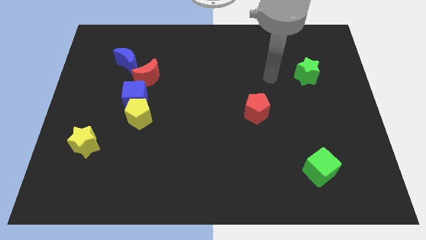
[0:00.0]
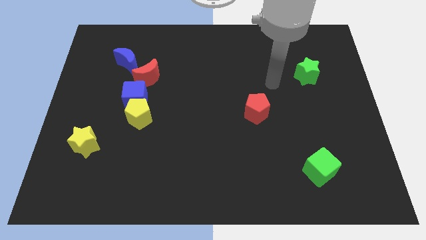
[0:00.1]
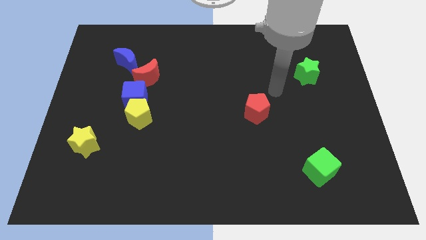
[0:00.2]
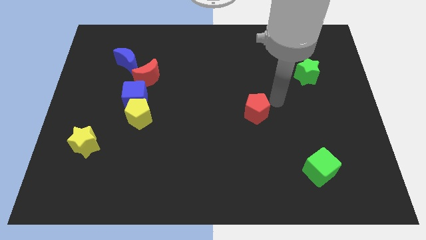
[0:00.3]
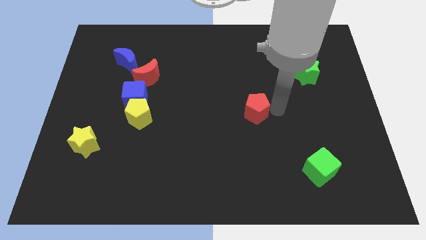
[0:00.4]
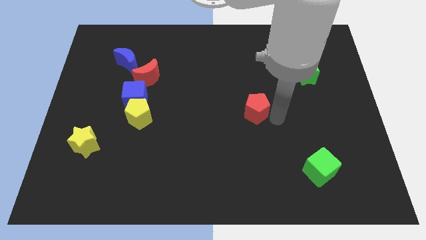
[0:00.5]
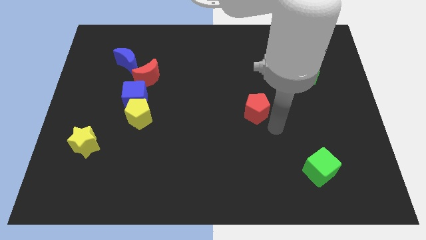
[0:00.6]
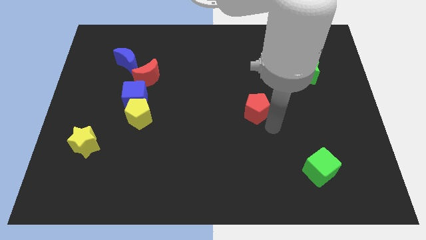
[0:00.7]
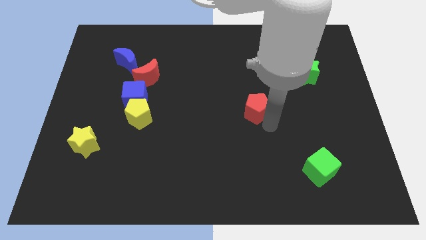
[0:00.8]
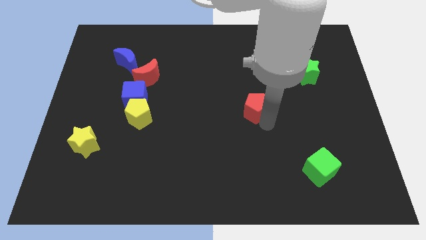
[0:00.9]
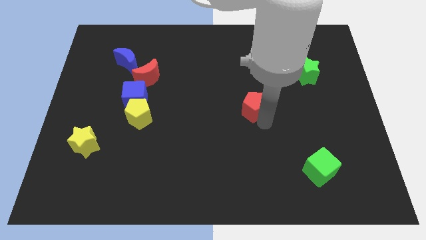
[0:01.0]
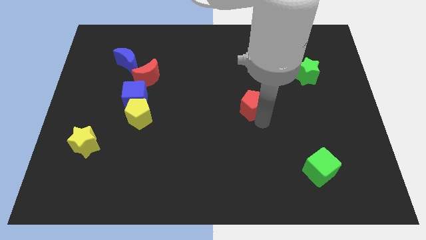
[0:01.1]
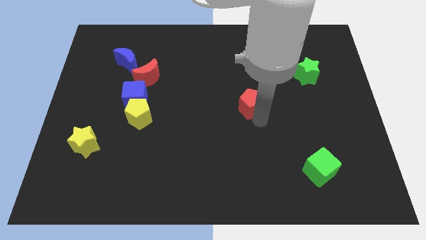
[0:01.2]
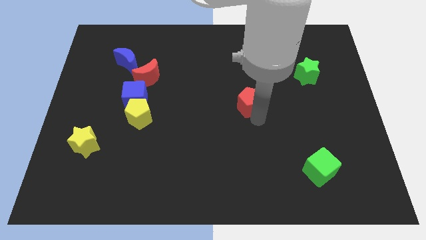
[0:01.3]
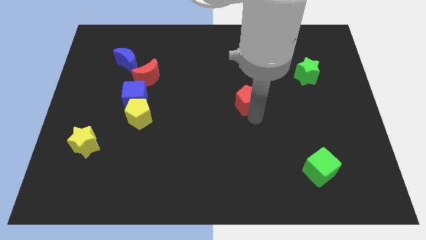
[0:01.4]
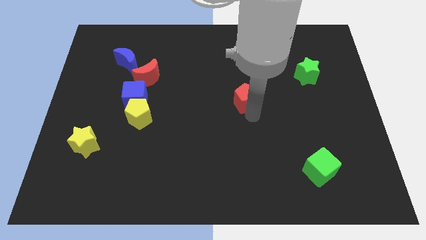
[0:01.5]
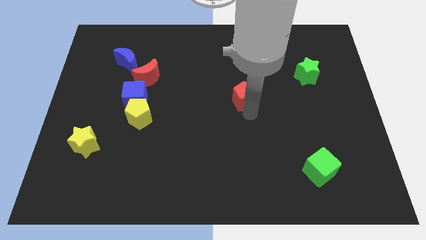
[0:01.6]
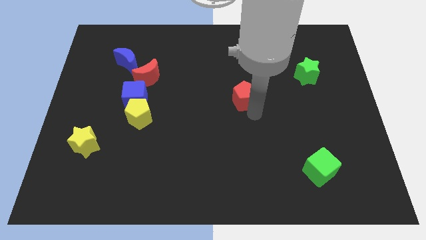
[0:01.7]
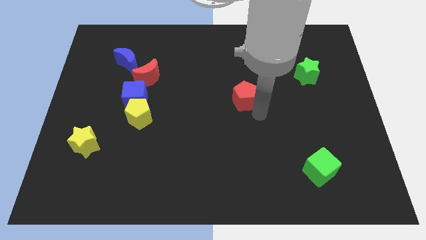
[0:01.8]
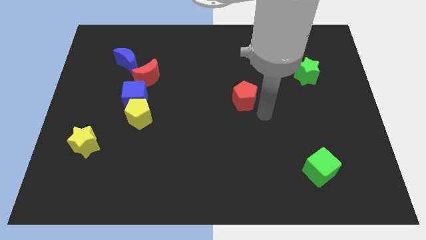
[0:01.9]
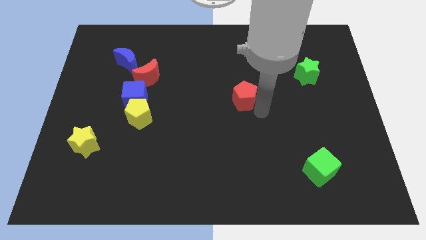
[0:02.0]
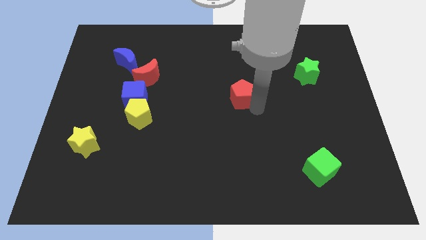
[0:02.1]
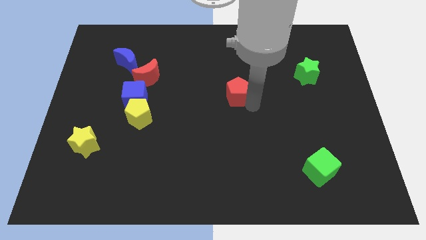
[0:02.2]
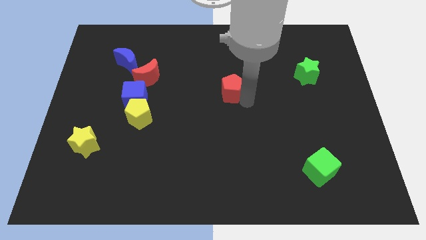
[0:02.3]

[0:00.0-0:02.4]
move the red pentagon a little bit up and to the left diagonally

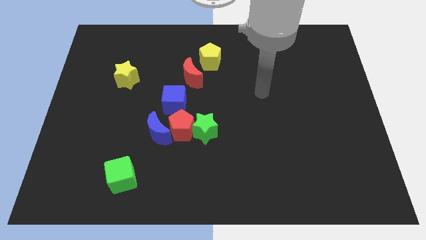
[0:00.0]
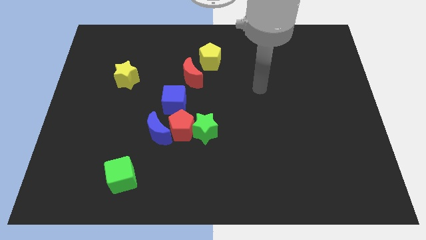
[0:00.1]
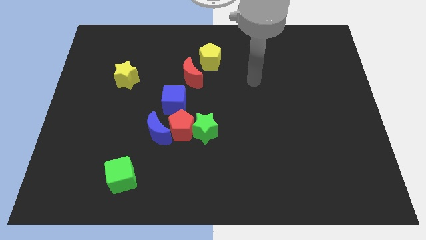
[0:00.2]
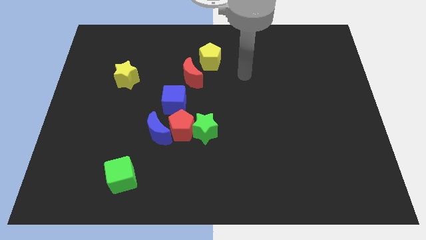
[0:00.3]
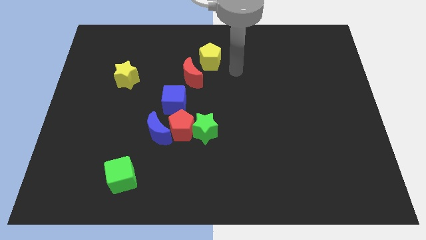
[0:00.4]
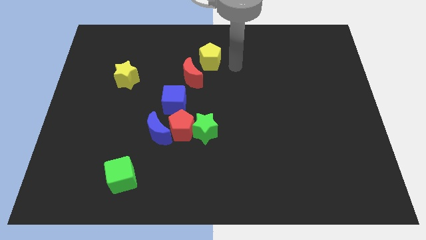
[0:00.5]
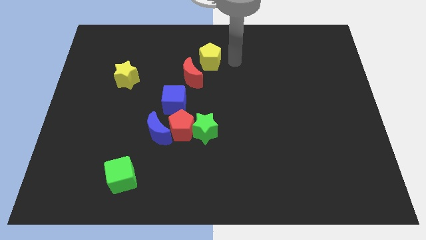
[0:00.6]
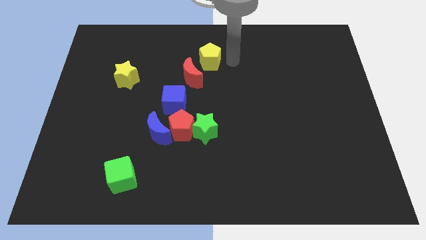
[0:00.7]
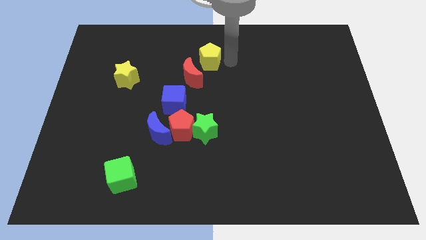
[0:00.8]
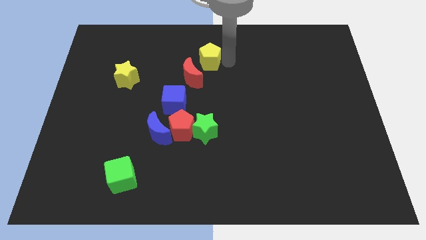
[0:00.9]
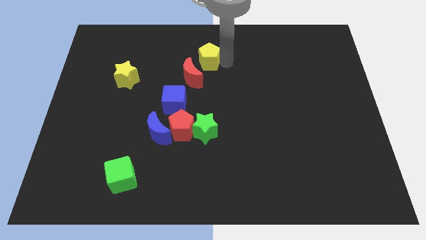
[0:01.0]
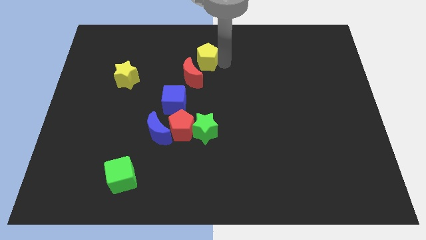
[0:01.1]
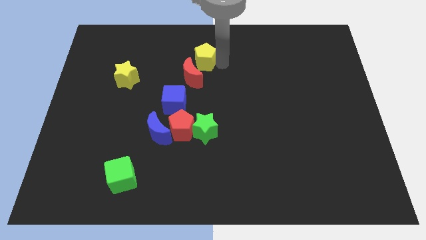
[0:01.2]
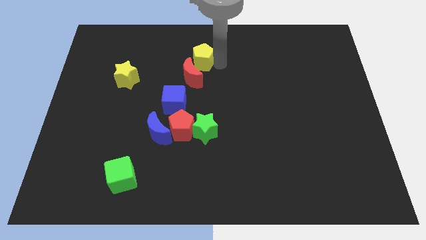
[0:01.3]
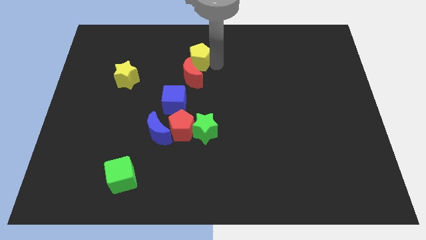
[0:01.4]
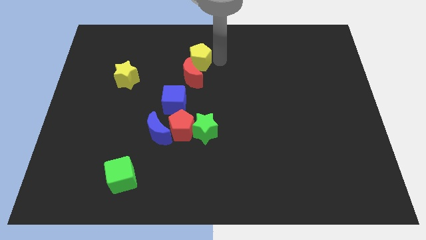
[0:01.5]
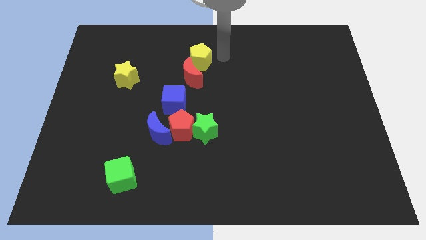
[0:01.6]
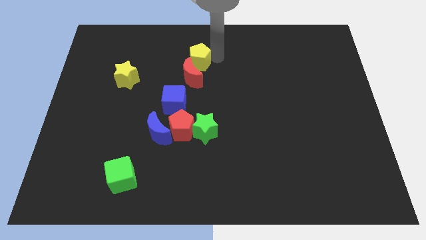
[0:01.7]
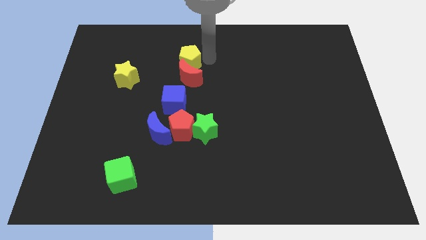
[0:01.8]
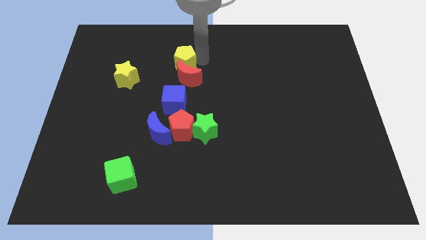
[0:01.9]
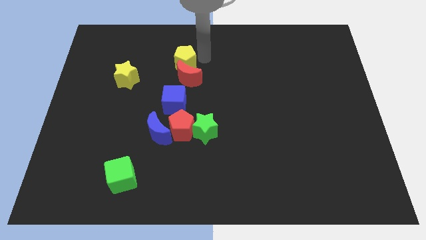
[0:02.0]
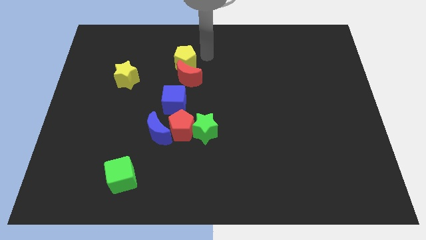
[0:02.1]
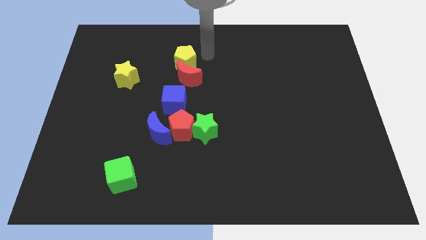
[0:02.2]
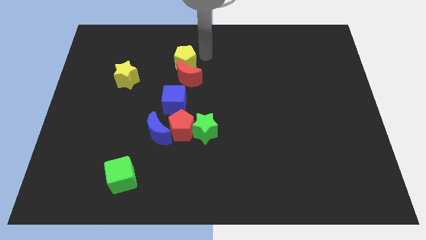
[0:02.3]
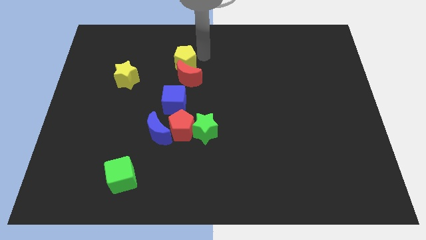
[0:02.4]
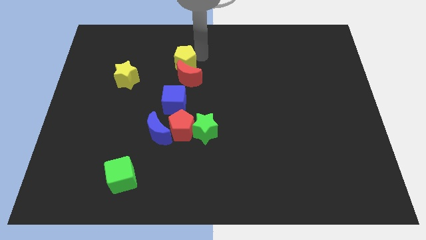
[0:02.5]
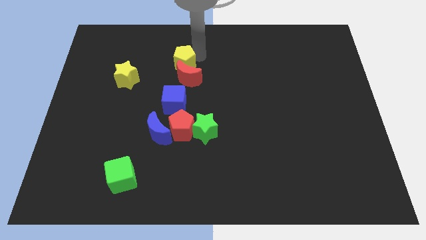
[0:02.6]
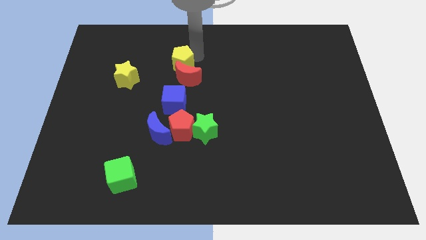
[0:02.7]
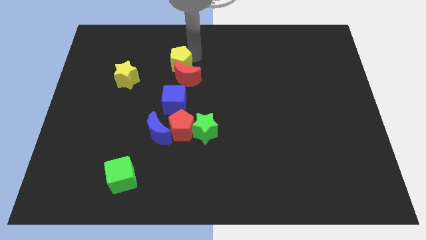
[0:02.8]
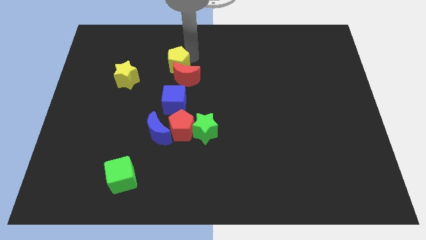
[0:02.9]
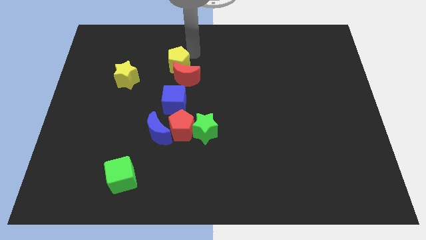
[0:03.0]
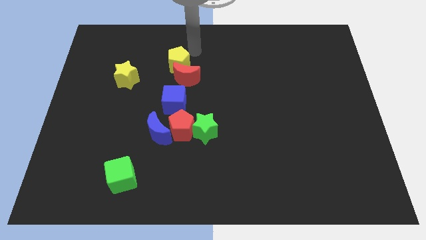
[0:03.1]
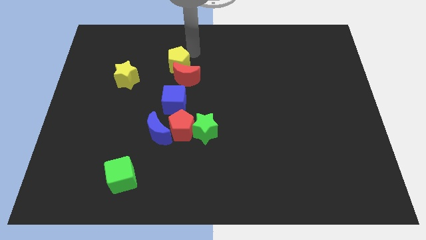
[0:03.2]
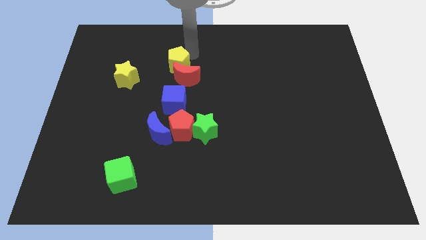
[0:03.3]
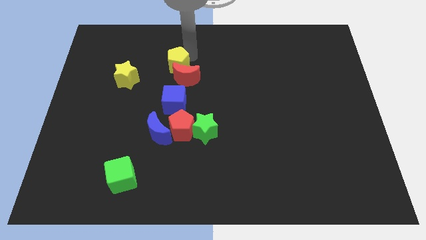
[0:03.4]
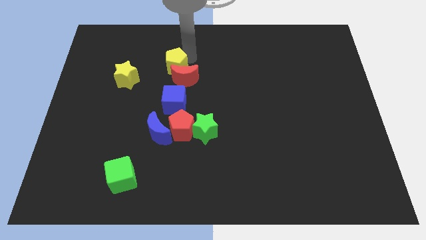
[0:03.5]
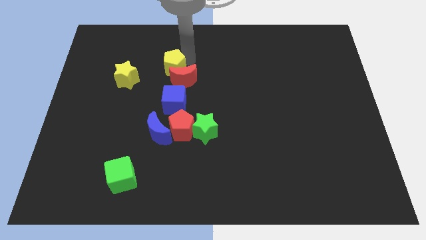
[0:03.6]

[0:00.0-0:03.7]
slightly slide the yellow pentagon downwards and left

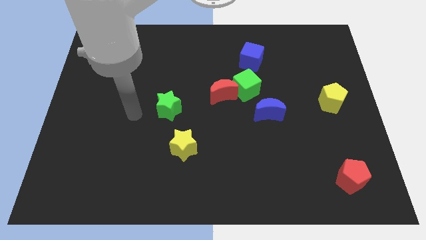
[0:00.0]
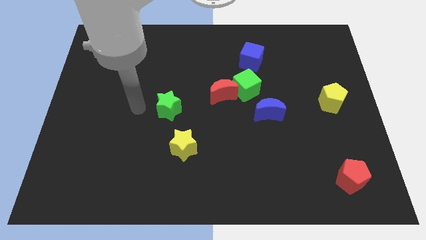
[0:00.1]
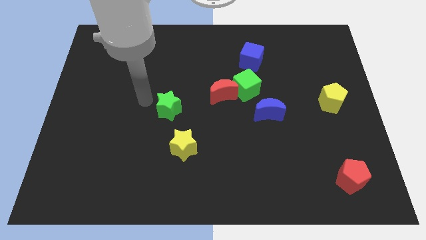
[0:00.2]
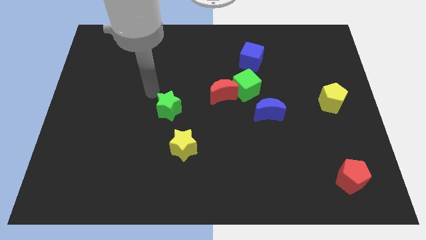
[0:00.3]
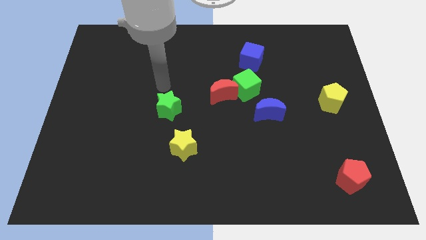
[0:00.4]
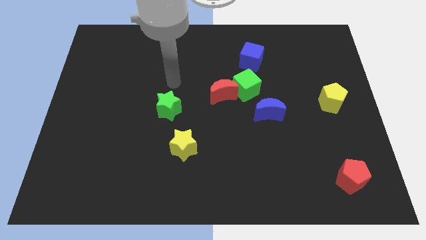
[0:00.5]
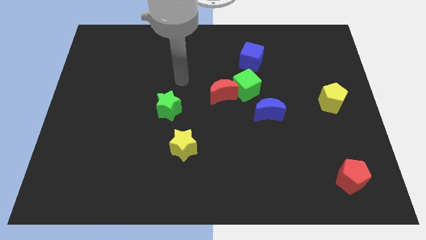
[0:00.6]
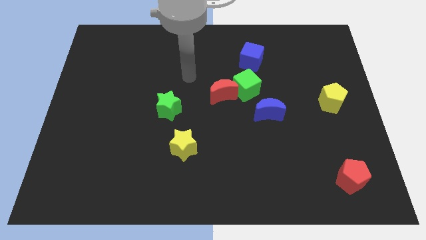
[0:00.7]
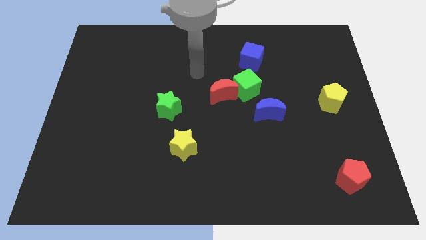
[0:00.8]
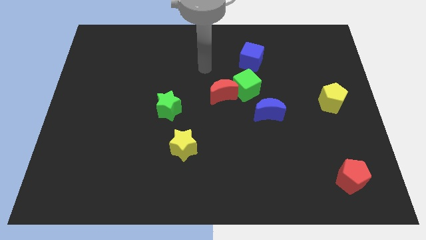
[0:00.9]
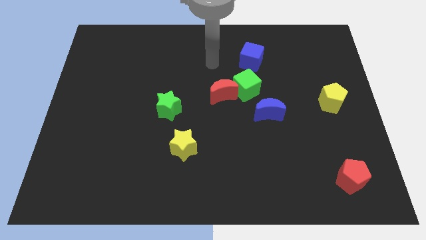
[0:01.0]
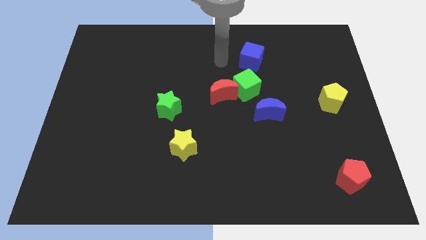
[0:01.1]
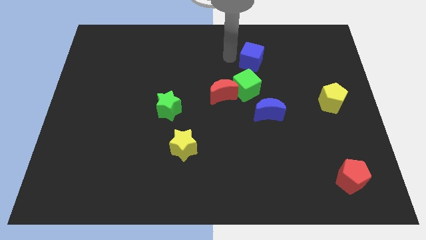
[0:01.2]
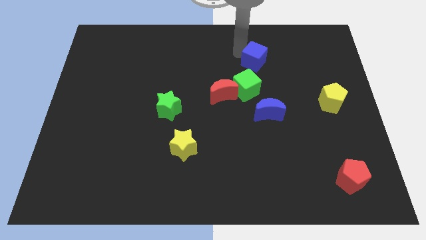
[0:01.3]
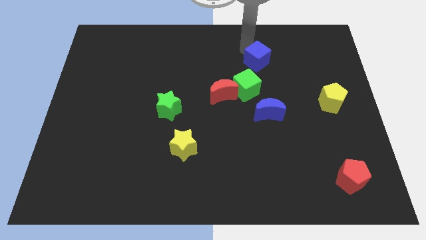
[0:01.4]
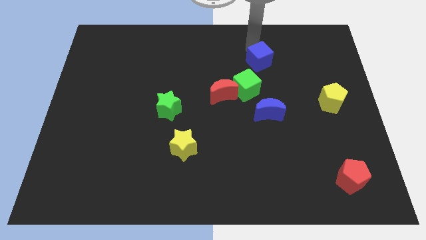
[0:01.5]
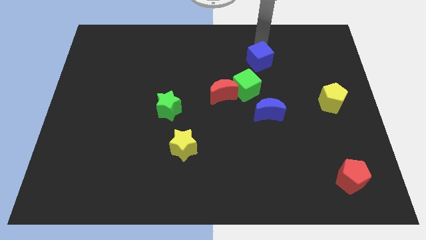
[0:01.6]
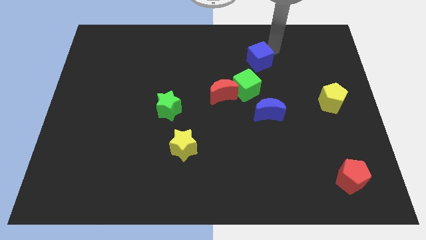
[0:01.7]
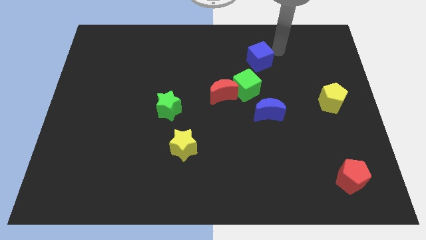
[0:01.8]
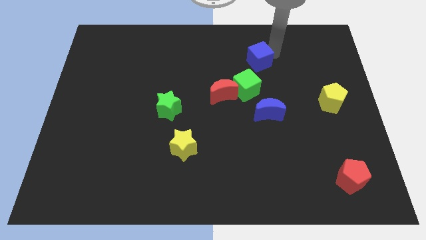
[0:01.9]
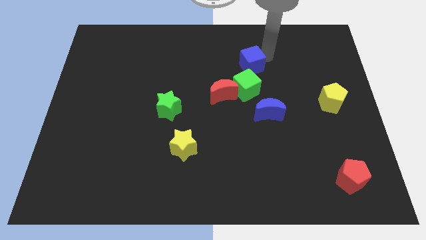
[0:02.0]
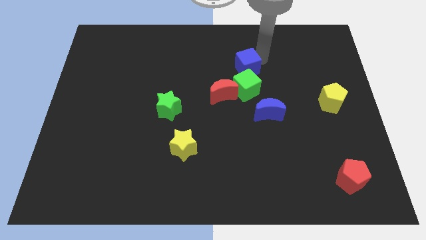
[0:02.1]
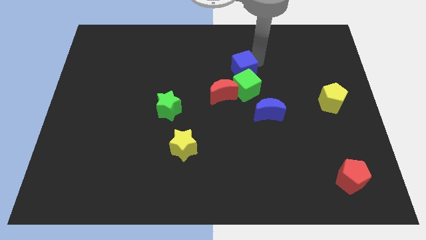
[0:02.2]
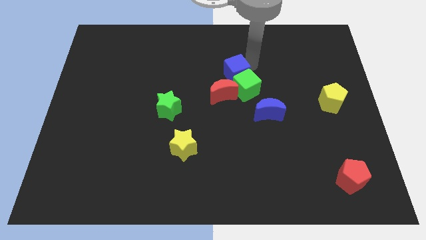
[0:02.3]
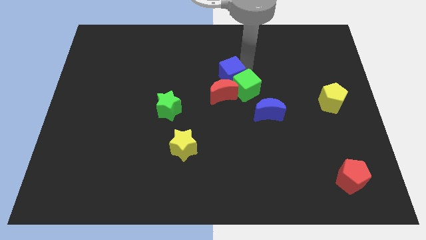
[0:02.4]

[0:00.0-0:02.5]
slightly slide the blue cube down and to the left
